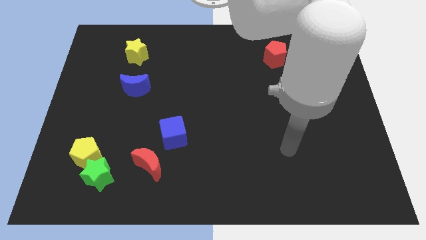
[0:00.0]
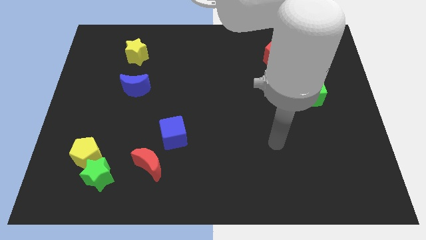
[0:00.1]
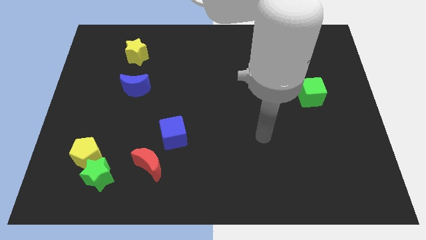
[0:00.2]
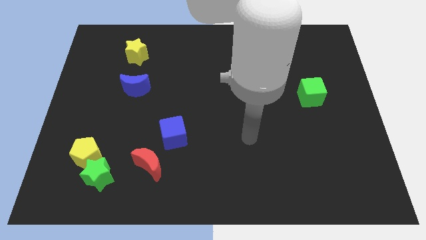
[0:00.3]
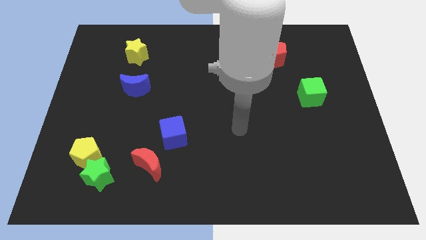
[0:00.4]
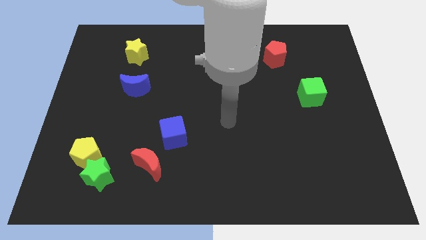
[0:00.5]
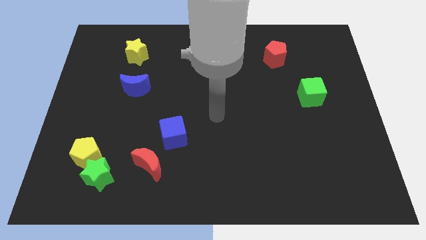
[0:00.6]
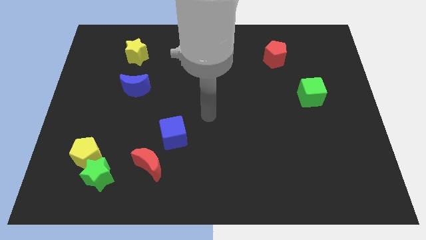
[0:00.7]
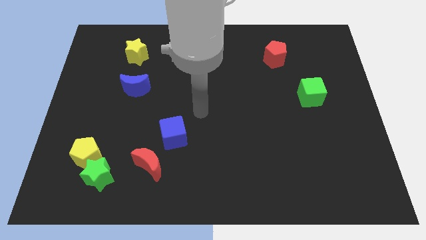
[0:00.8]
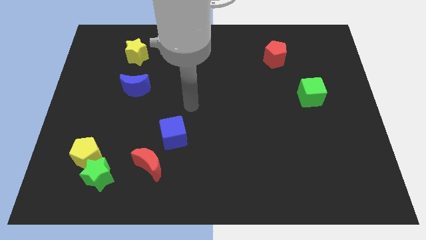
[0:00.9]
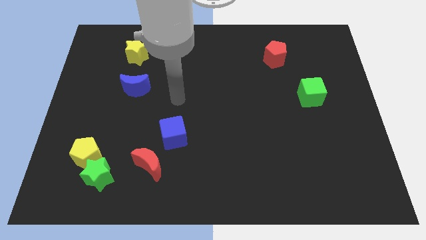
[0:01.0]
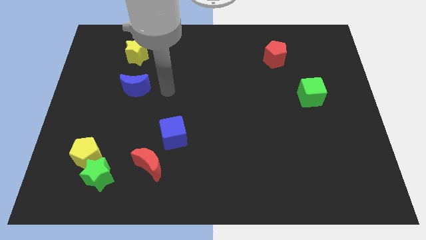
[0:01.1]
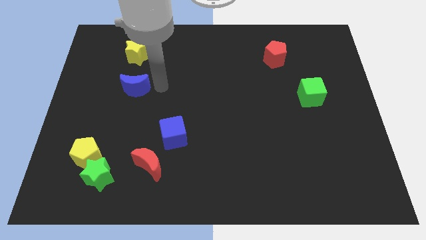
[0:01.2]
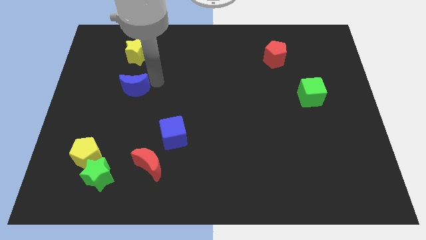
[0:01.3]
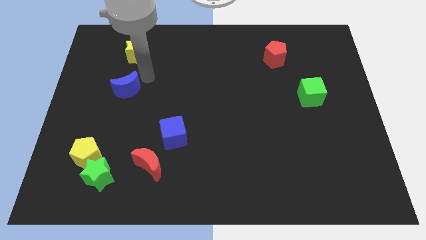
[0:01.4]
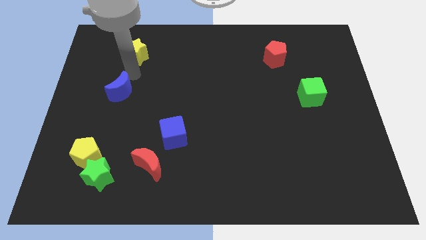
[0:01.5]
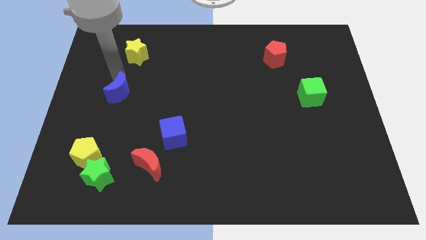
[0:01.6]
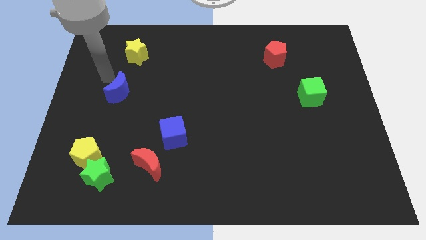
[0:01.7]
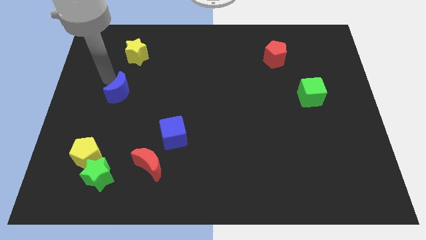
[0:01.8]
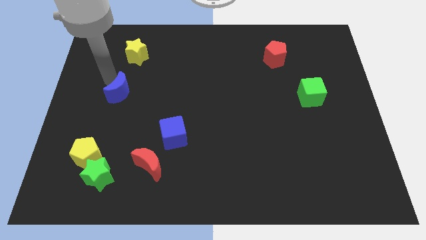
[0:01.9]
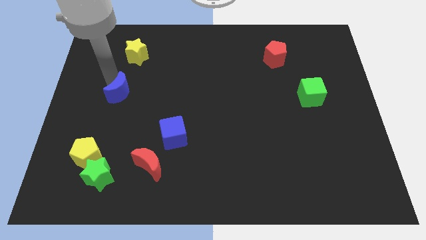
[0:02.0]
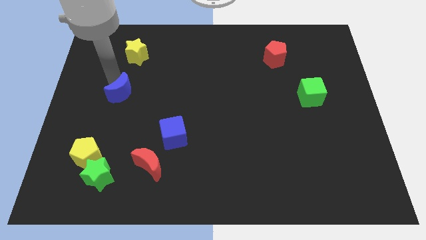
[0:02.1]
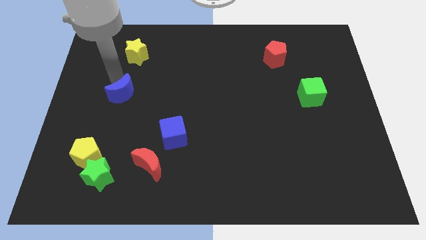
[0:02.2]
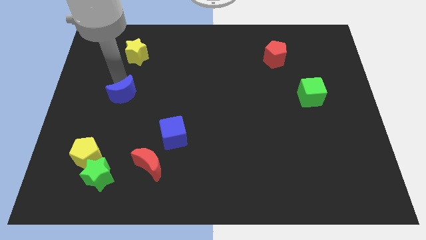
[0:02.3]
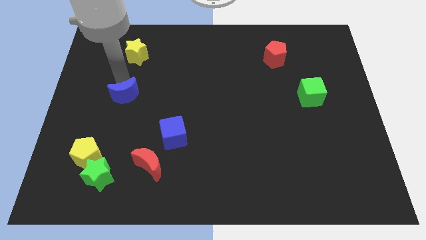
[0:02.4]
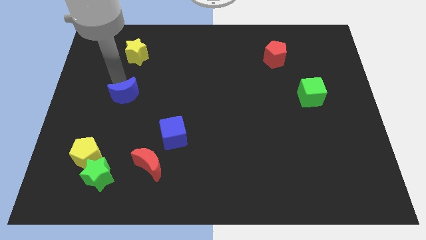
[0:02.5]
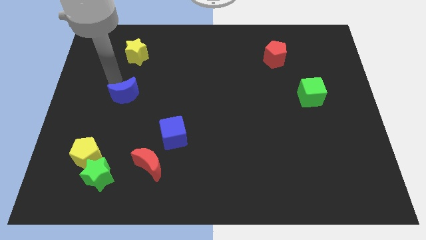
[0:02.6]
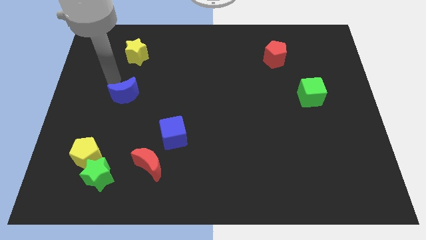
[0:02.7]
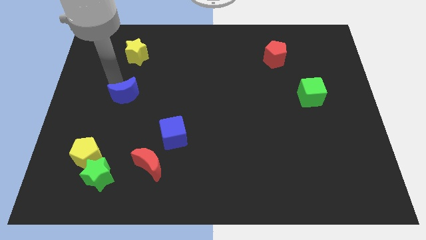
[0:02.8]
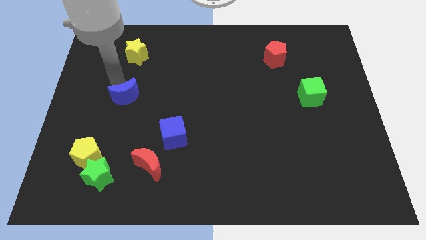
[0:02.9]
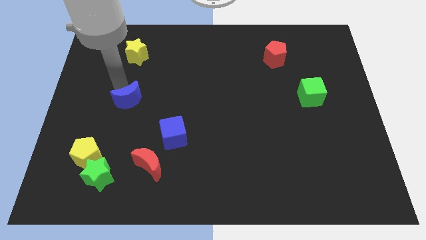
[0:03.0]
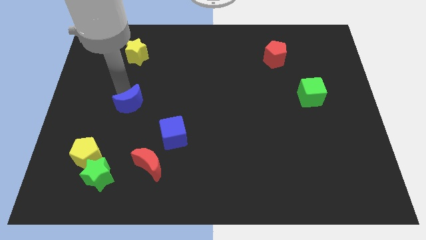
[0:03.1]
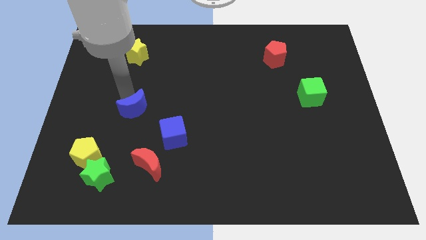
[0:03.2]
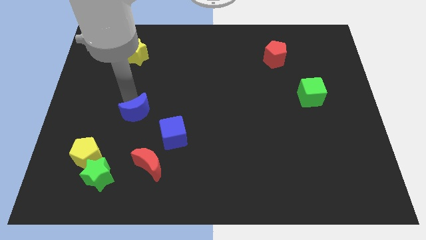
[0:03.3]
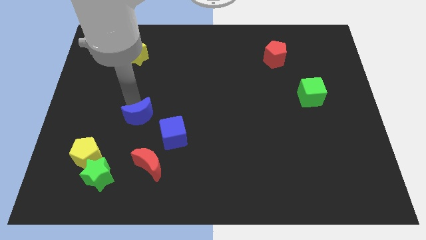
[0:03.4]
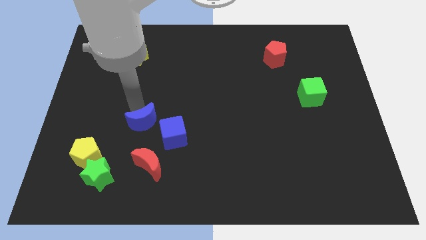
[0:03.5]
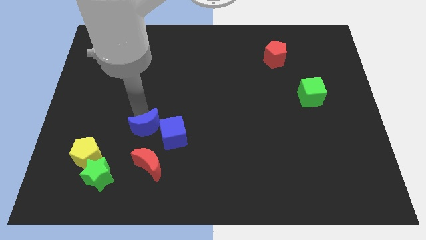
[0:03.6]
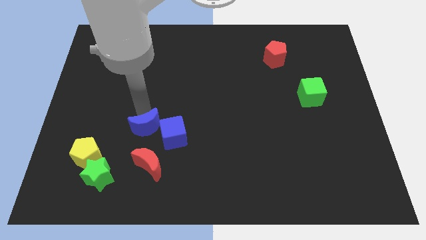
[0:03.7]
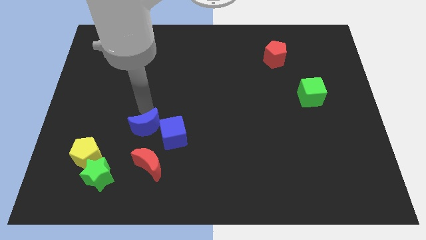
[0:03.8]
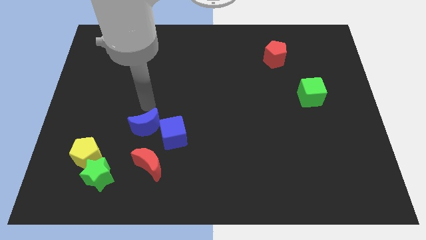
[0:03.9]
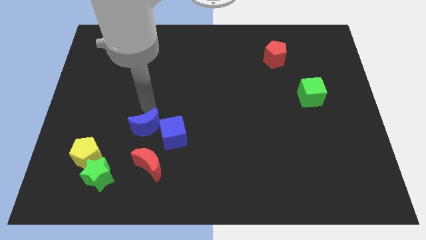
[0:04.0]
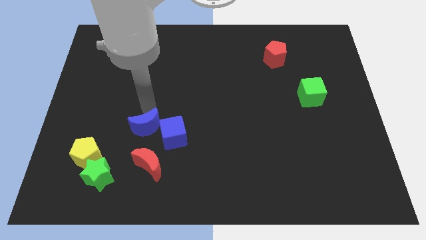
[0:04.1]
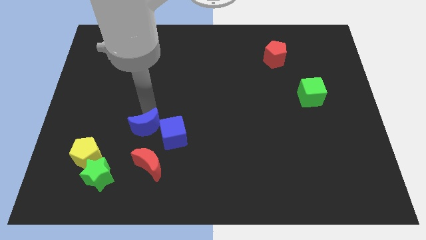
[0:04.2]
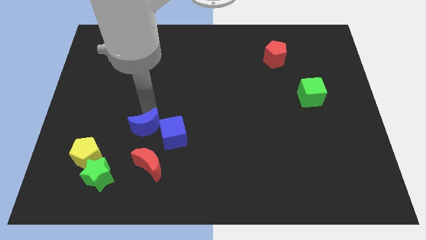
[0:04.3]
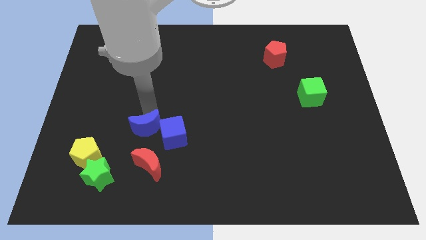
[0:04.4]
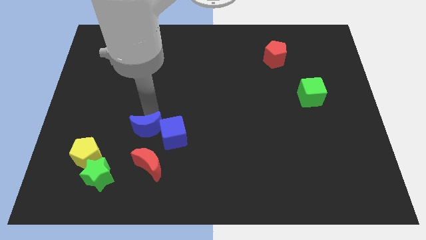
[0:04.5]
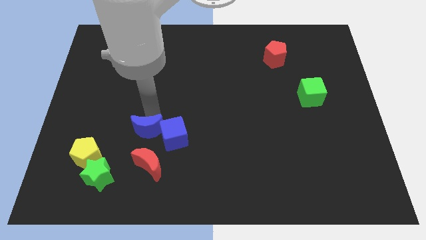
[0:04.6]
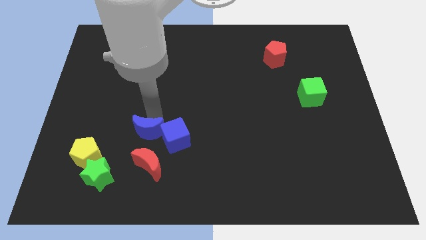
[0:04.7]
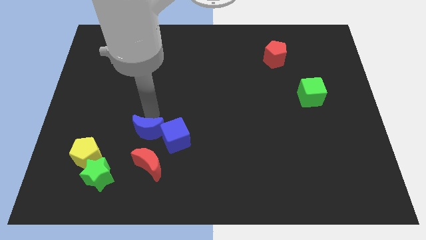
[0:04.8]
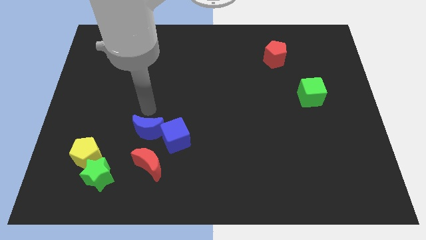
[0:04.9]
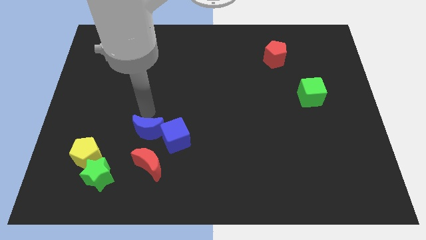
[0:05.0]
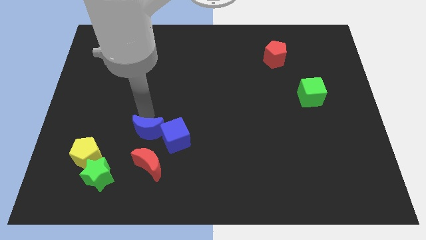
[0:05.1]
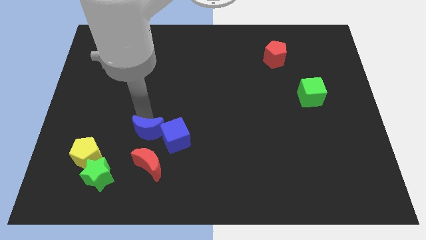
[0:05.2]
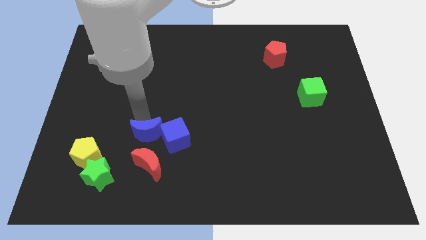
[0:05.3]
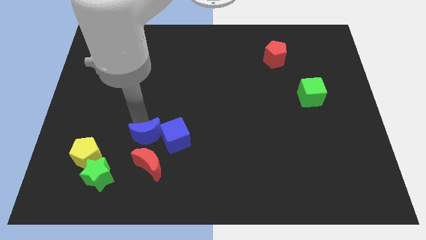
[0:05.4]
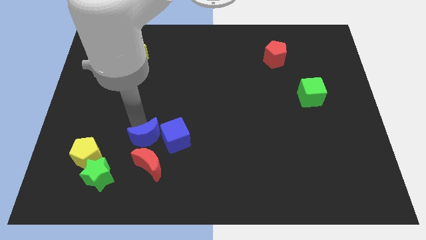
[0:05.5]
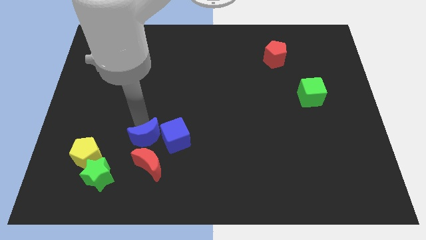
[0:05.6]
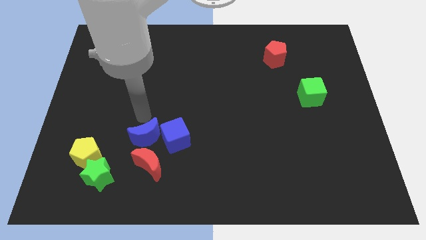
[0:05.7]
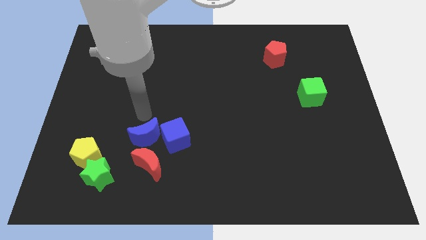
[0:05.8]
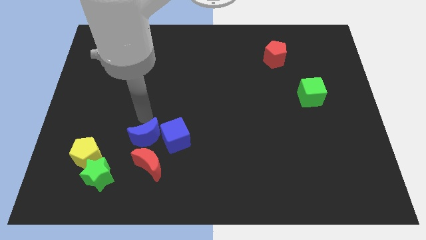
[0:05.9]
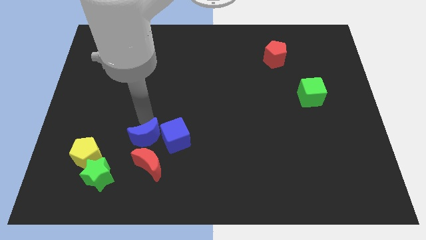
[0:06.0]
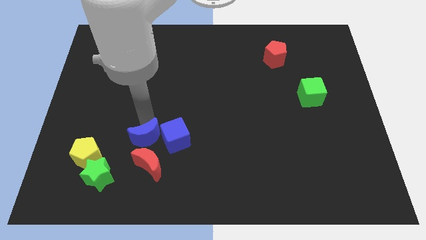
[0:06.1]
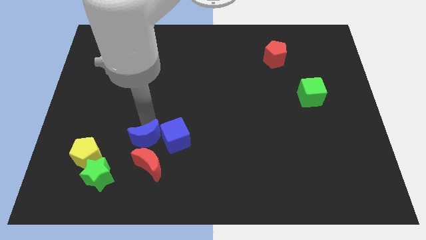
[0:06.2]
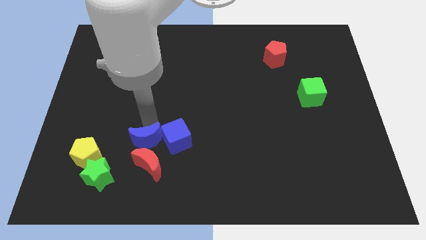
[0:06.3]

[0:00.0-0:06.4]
slide the blue moon close to the red moon
